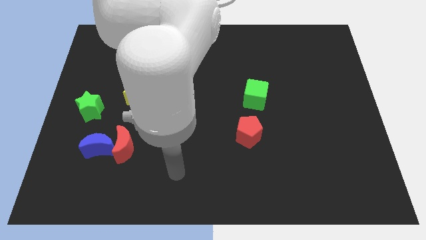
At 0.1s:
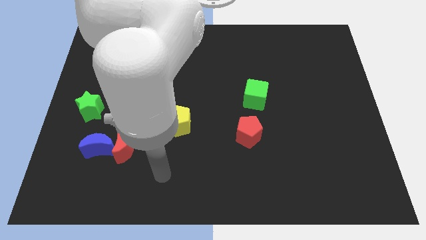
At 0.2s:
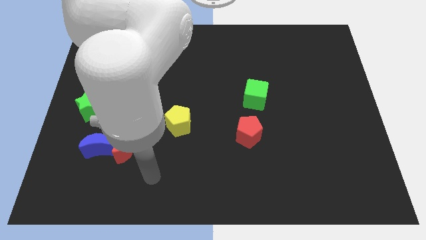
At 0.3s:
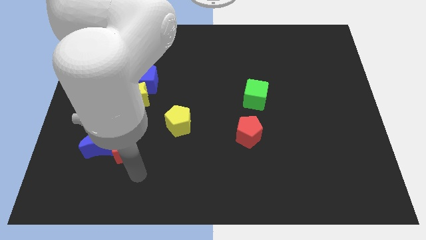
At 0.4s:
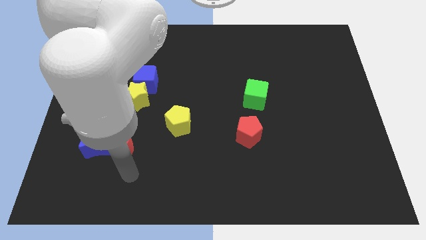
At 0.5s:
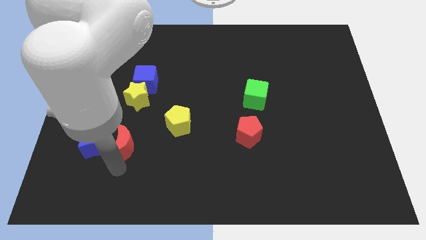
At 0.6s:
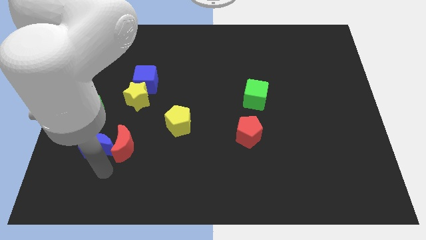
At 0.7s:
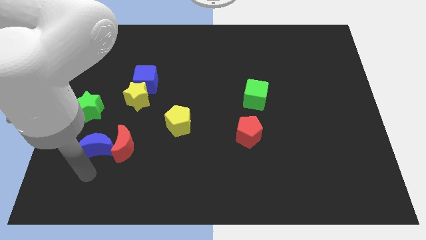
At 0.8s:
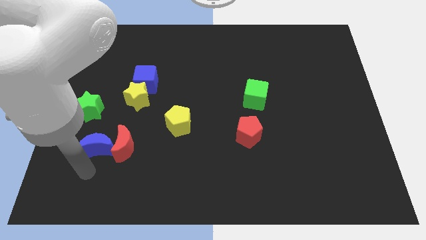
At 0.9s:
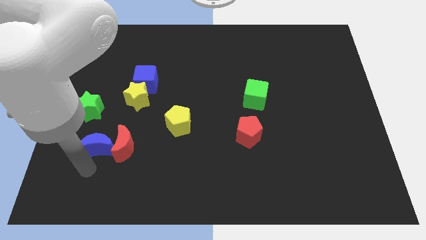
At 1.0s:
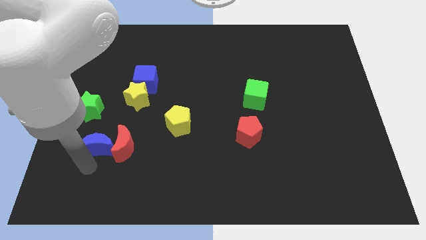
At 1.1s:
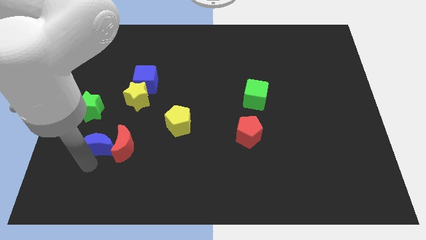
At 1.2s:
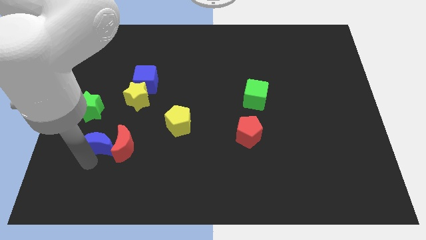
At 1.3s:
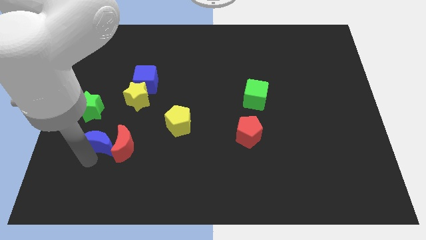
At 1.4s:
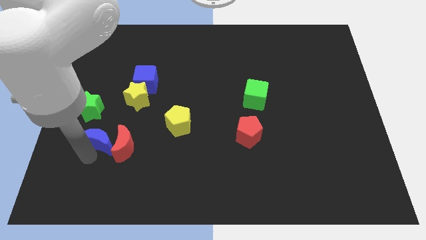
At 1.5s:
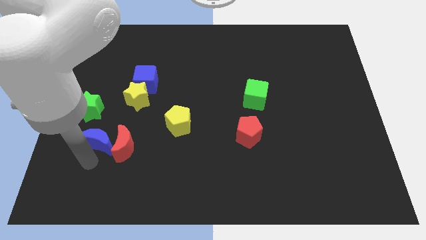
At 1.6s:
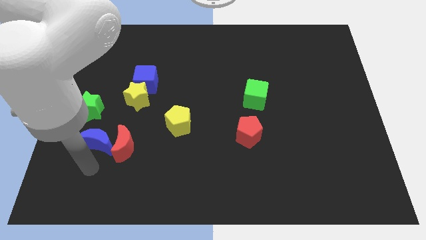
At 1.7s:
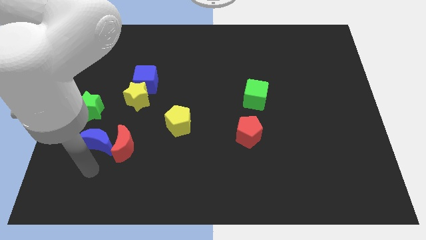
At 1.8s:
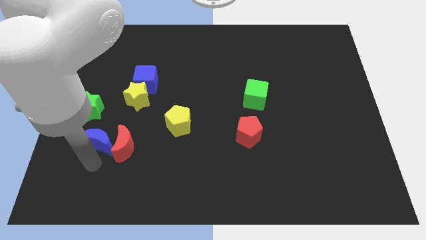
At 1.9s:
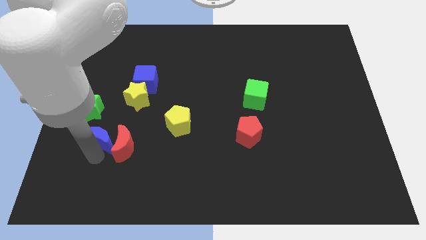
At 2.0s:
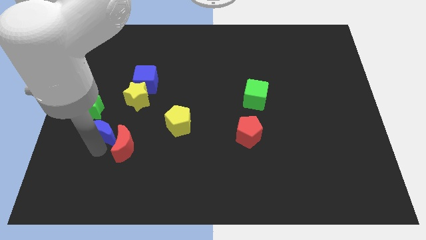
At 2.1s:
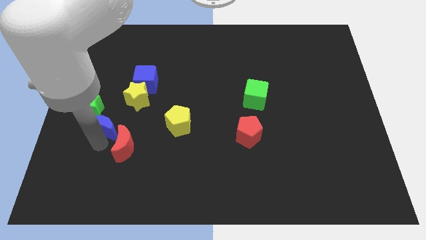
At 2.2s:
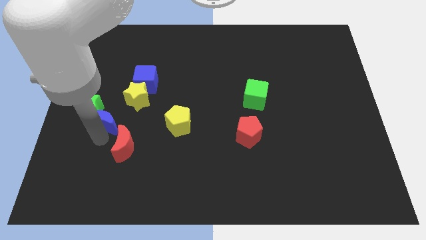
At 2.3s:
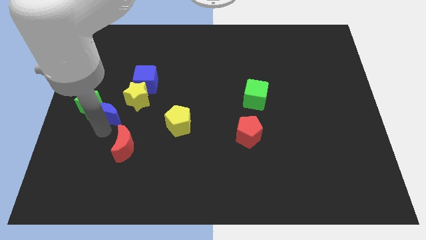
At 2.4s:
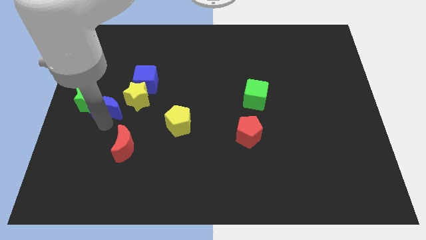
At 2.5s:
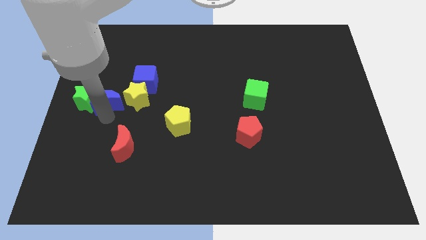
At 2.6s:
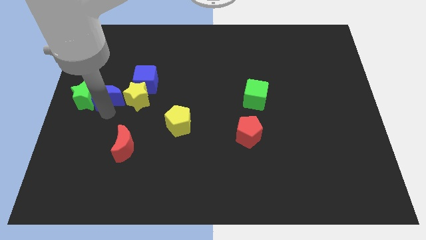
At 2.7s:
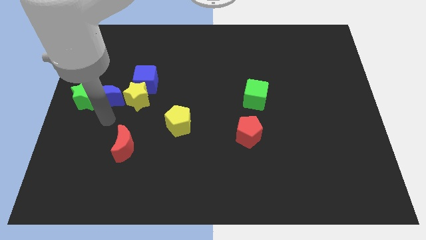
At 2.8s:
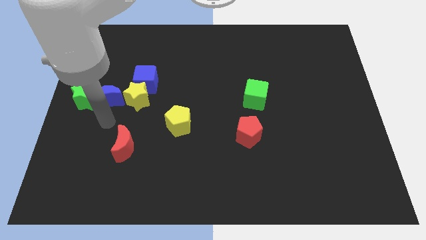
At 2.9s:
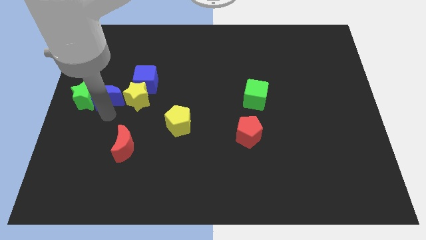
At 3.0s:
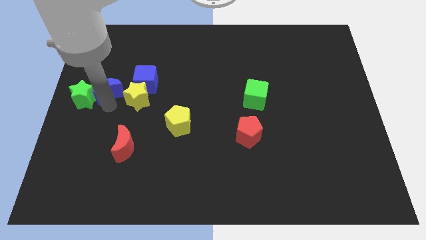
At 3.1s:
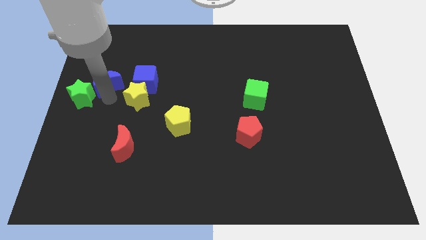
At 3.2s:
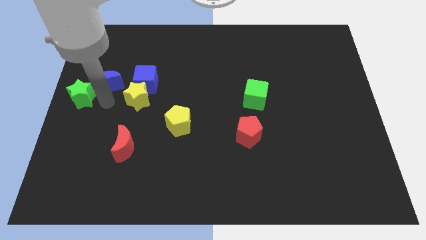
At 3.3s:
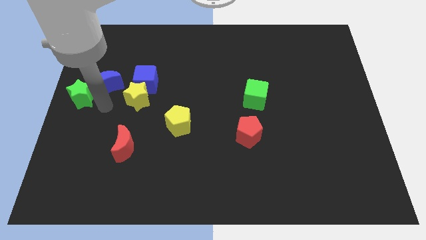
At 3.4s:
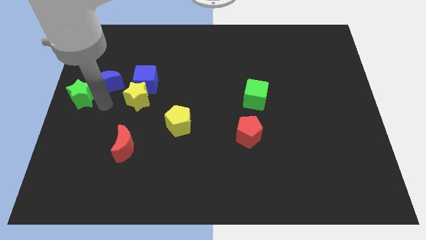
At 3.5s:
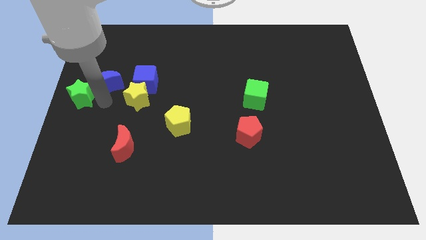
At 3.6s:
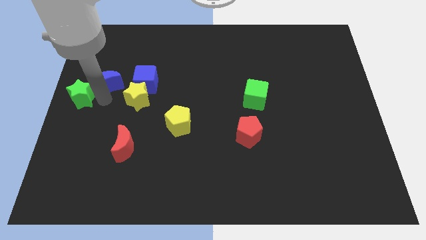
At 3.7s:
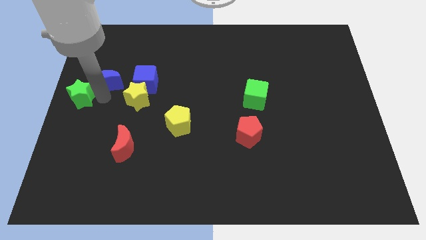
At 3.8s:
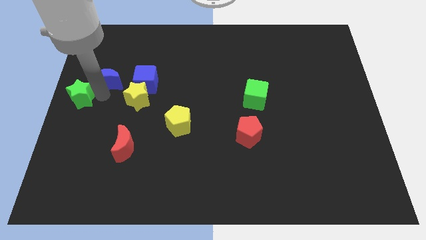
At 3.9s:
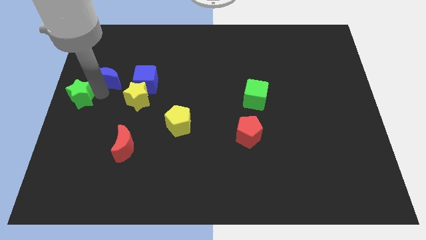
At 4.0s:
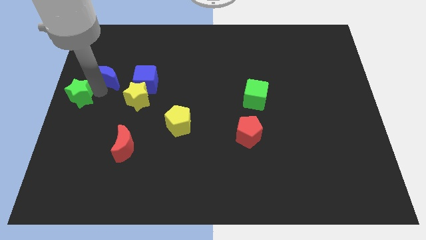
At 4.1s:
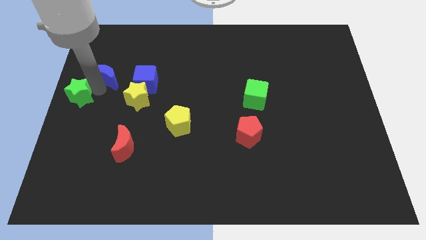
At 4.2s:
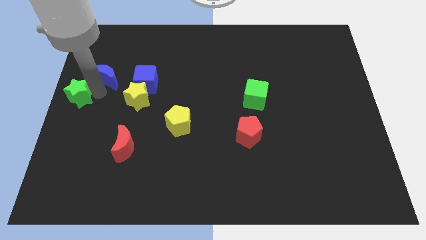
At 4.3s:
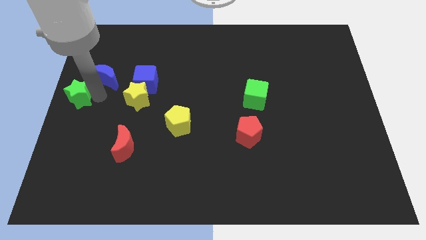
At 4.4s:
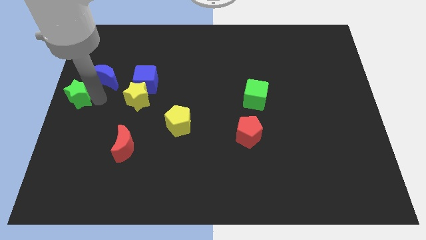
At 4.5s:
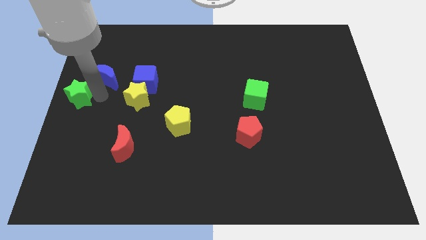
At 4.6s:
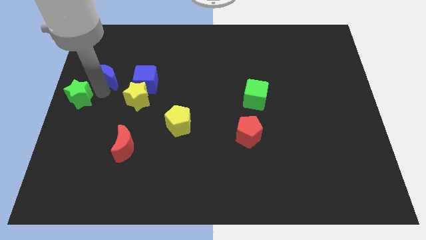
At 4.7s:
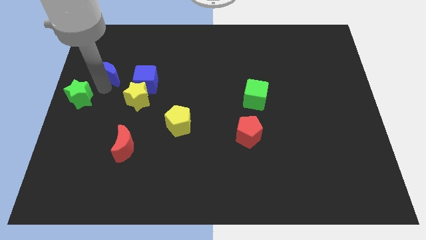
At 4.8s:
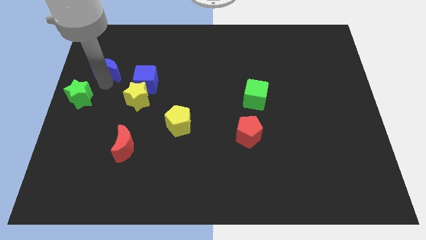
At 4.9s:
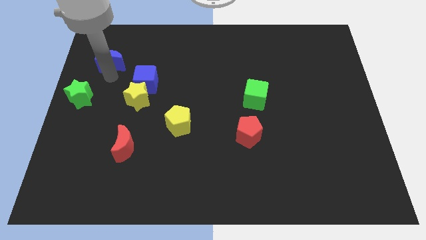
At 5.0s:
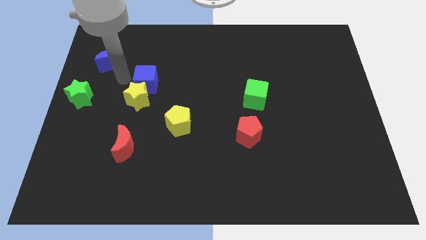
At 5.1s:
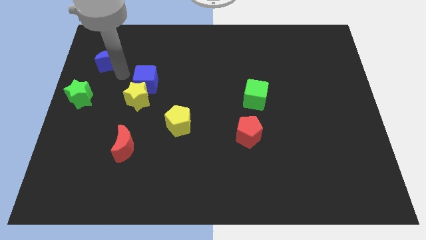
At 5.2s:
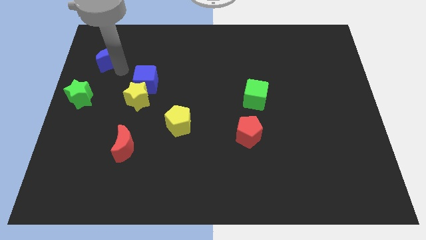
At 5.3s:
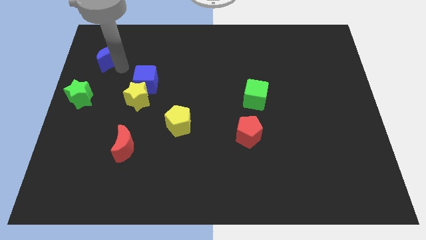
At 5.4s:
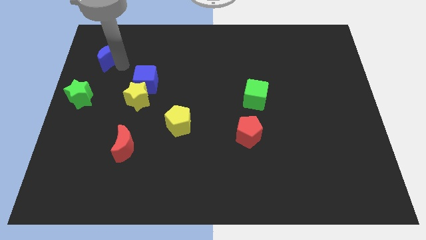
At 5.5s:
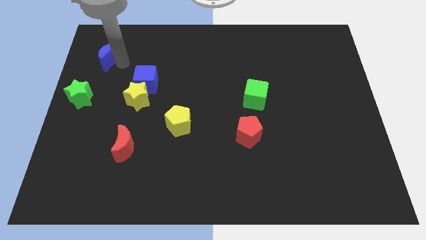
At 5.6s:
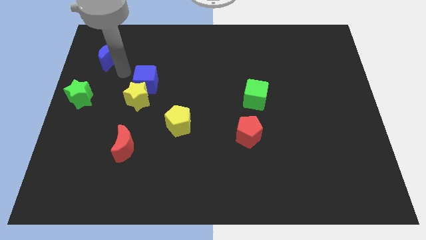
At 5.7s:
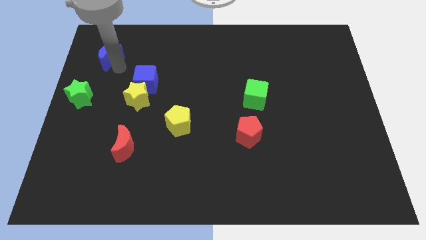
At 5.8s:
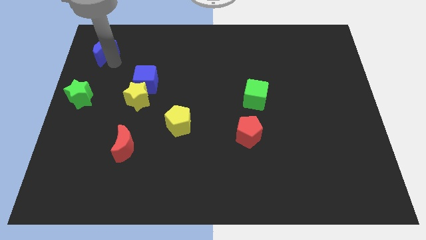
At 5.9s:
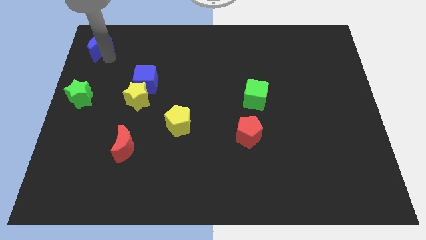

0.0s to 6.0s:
push the blue moon to the top left corner

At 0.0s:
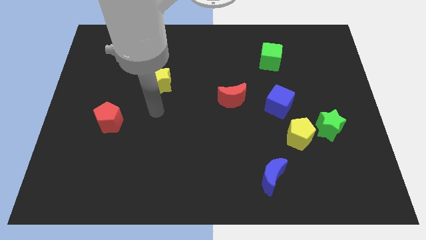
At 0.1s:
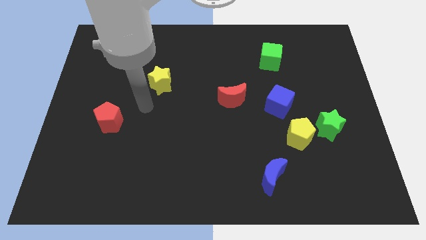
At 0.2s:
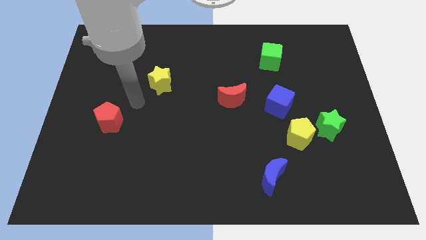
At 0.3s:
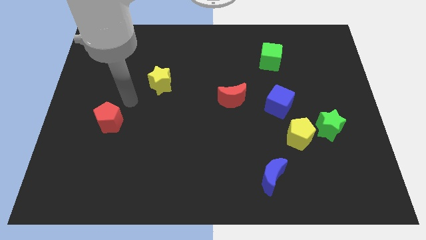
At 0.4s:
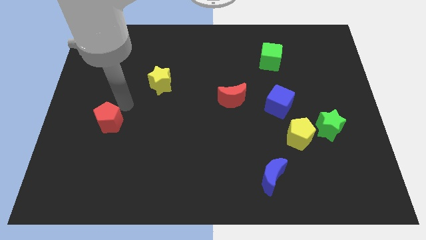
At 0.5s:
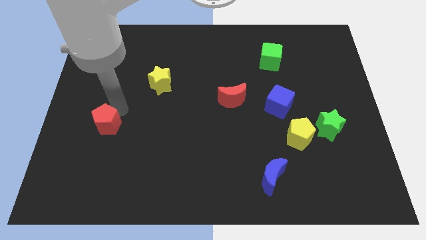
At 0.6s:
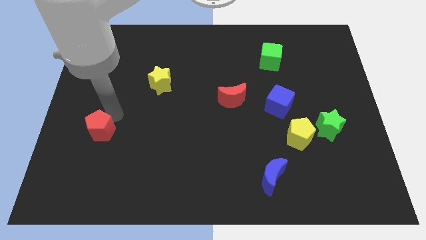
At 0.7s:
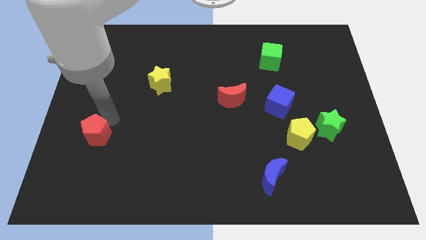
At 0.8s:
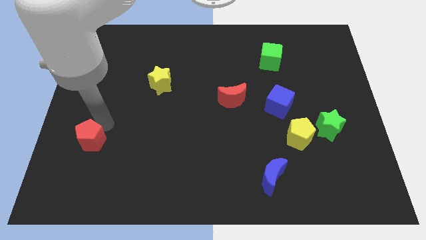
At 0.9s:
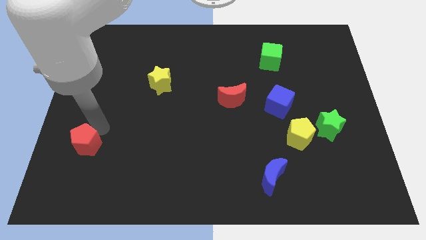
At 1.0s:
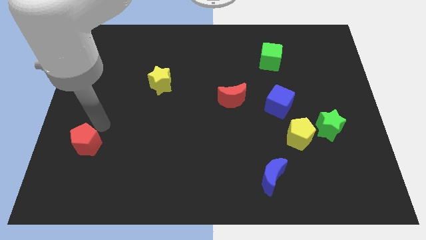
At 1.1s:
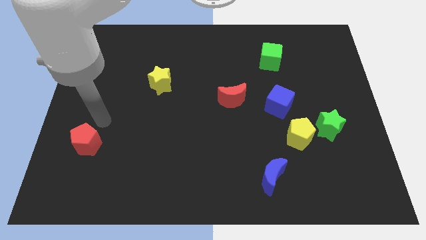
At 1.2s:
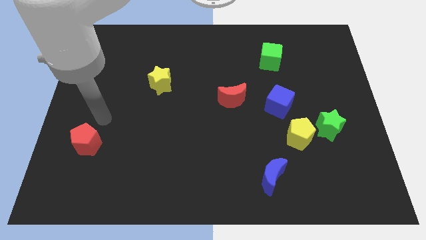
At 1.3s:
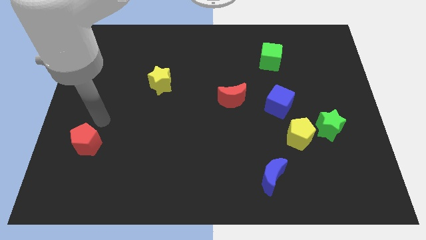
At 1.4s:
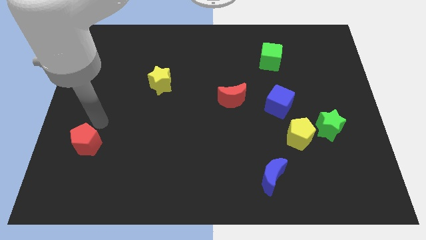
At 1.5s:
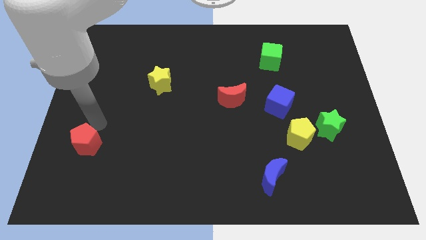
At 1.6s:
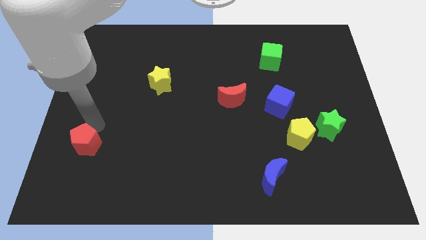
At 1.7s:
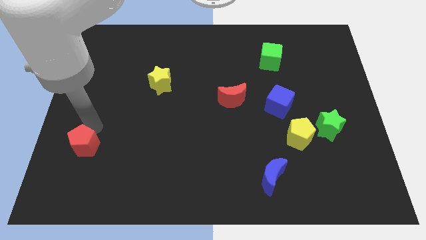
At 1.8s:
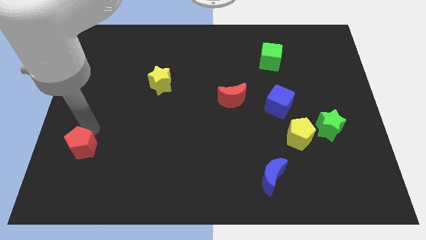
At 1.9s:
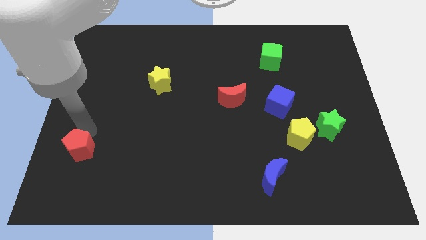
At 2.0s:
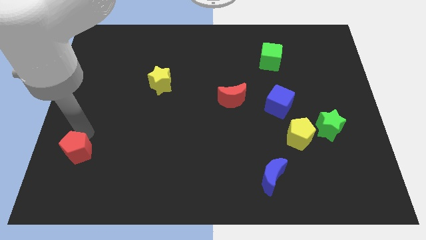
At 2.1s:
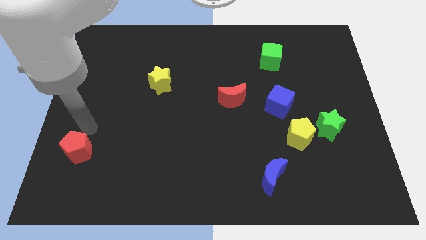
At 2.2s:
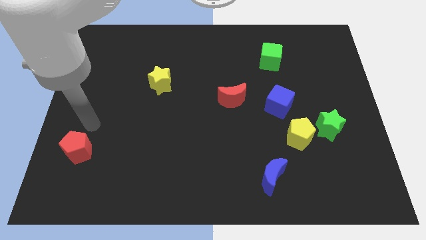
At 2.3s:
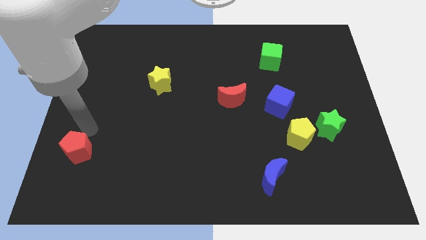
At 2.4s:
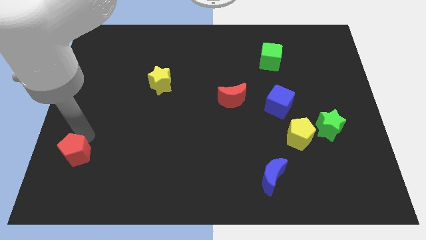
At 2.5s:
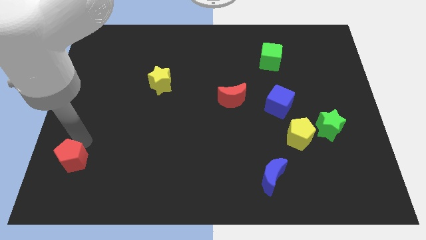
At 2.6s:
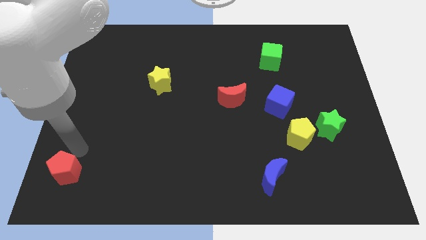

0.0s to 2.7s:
move the red pentagon to the bottom left corner
